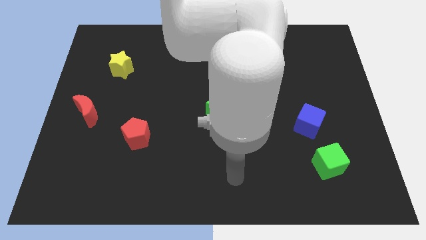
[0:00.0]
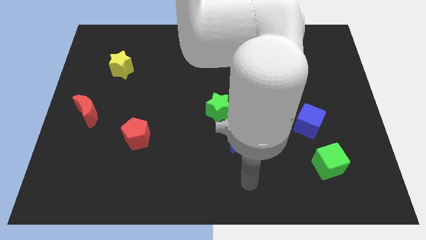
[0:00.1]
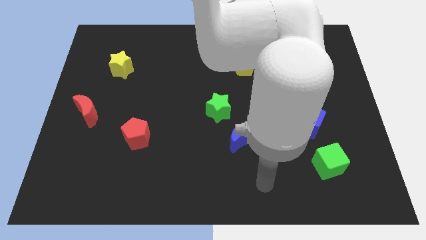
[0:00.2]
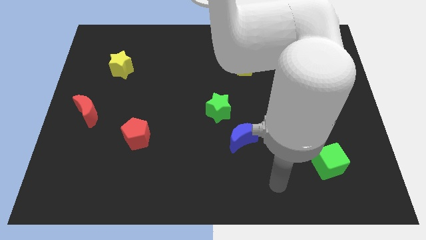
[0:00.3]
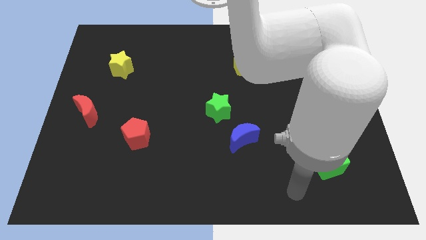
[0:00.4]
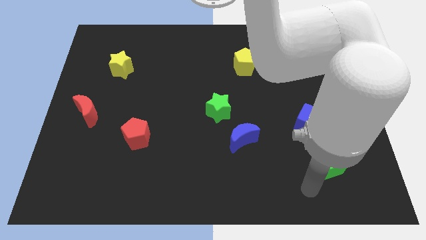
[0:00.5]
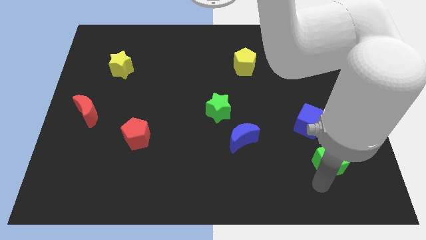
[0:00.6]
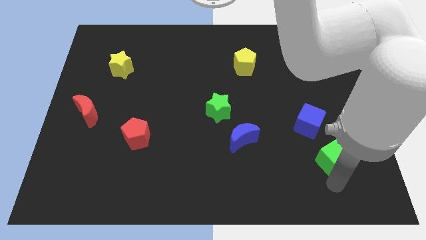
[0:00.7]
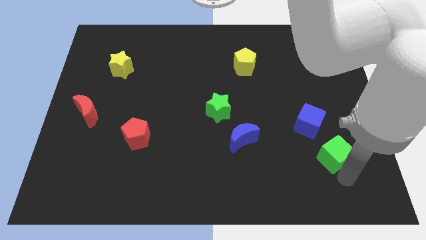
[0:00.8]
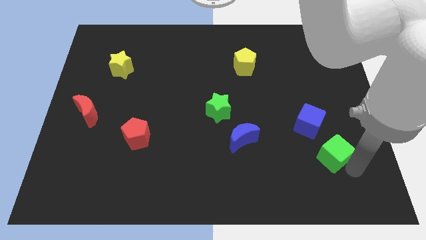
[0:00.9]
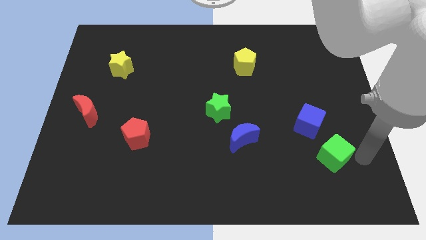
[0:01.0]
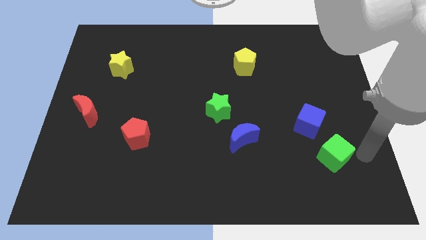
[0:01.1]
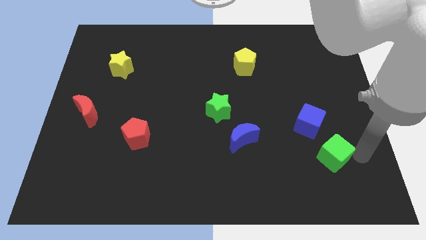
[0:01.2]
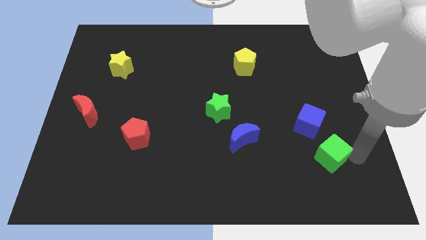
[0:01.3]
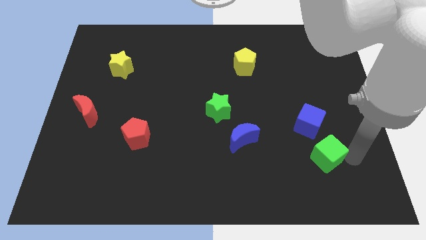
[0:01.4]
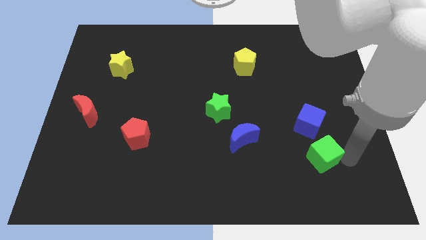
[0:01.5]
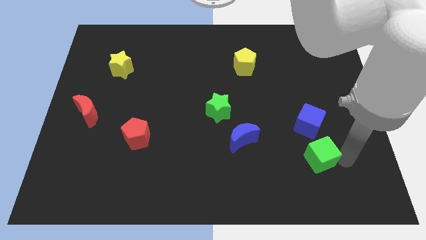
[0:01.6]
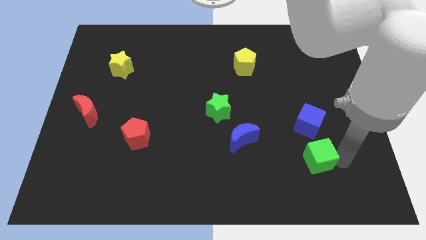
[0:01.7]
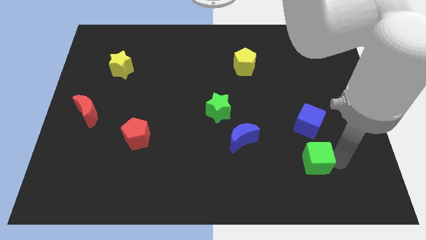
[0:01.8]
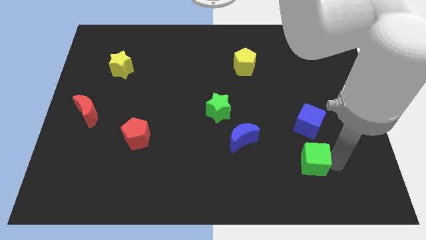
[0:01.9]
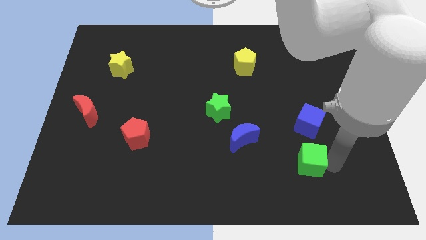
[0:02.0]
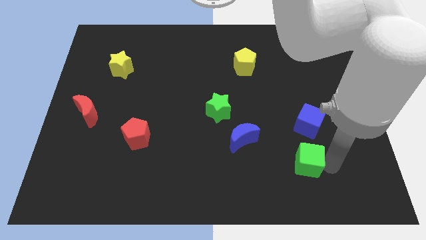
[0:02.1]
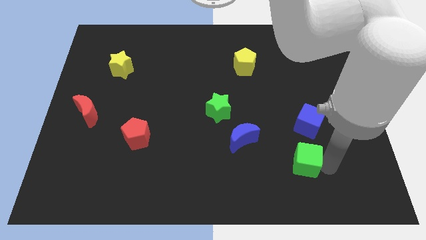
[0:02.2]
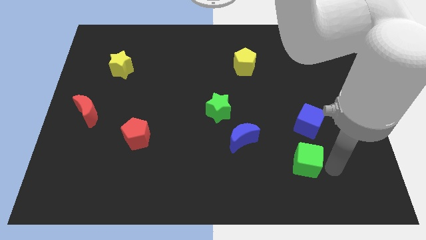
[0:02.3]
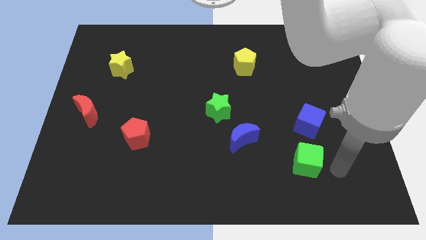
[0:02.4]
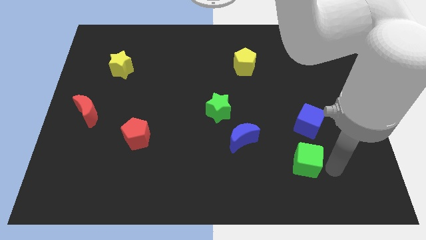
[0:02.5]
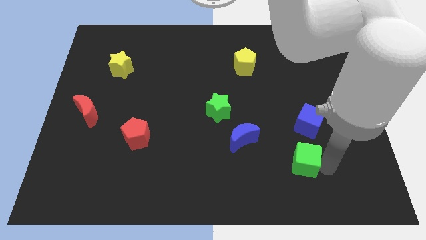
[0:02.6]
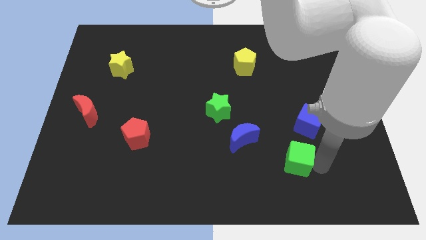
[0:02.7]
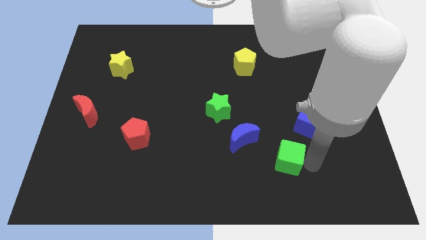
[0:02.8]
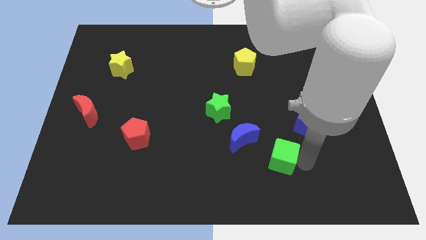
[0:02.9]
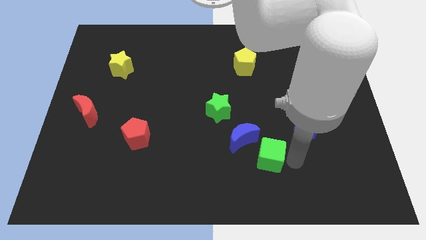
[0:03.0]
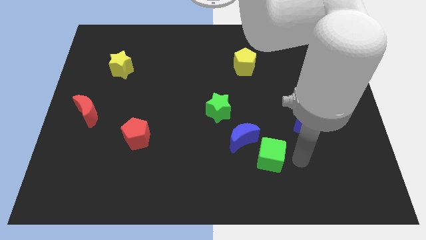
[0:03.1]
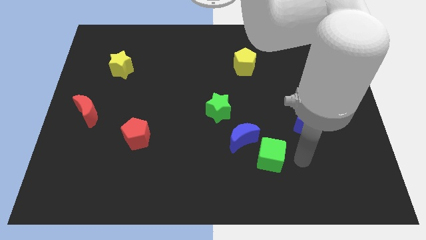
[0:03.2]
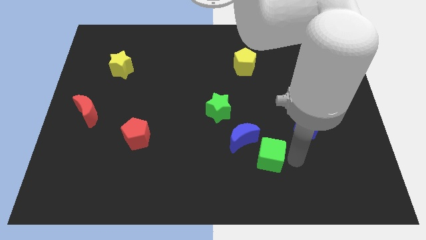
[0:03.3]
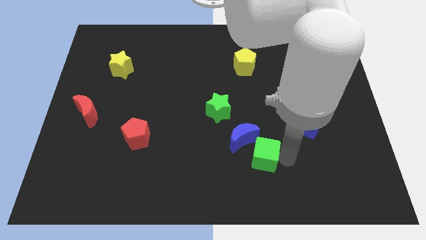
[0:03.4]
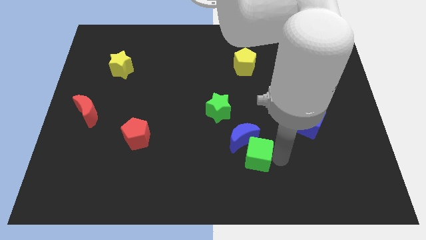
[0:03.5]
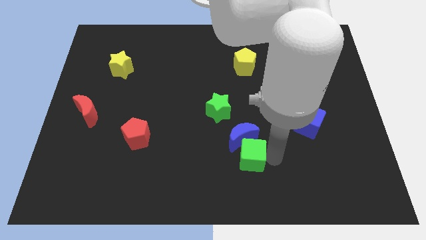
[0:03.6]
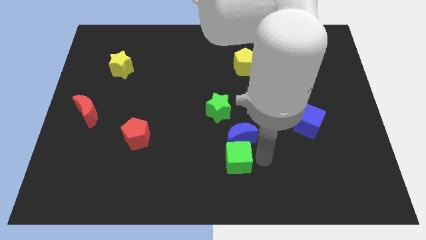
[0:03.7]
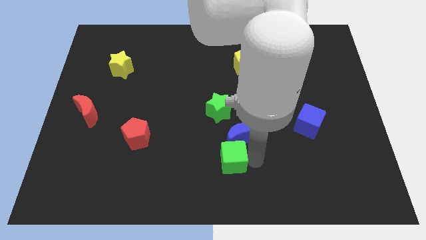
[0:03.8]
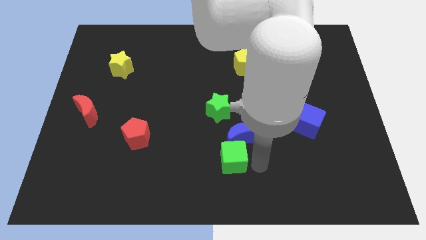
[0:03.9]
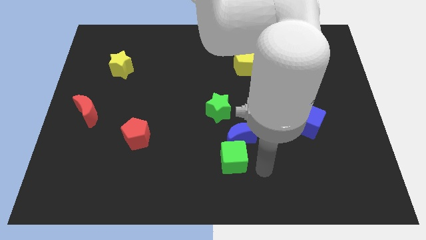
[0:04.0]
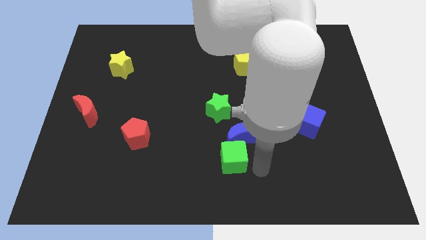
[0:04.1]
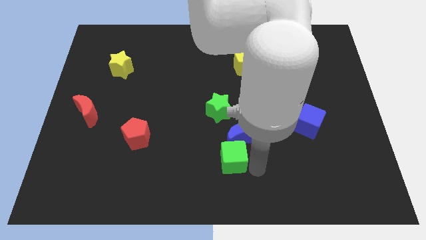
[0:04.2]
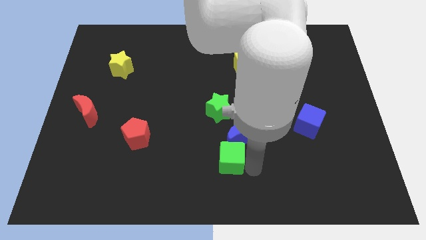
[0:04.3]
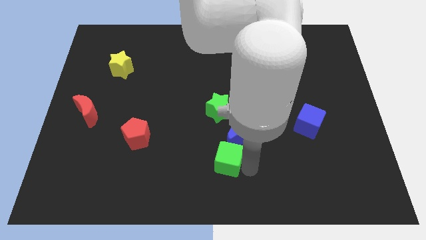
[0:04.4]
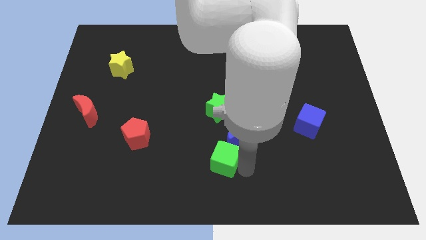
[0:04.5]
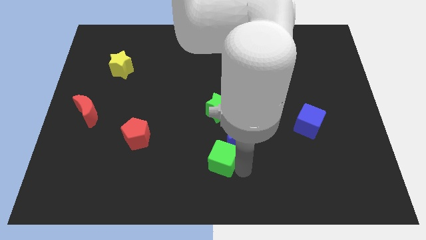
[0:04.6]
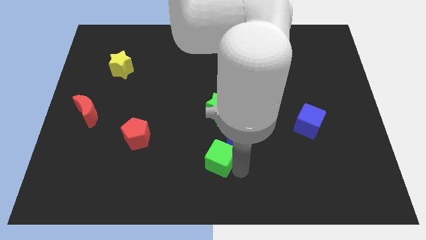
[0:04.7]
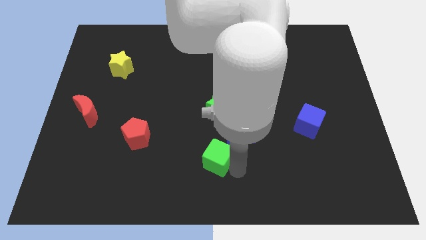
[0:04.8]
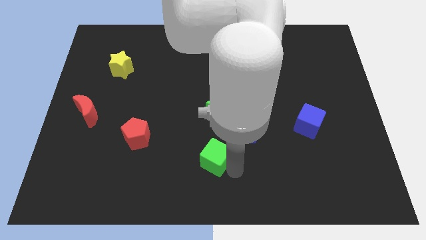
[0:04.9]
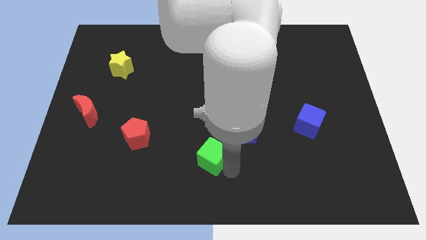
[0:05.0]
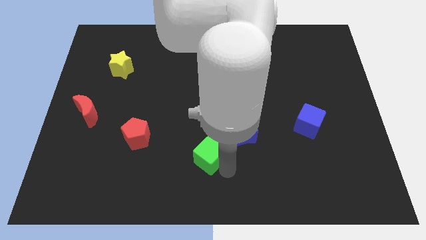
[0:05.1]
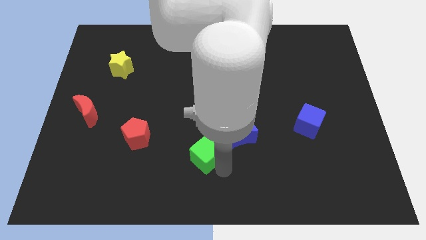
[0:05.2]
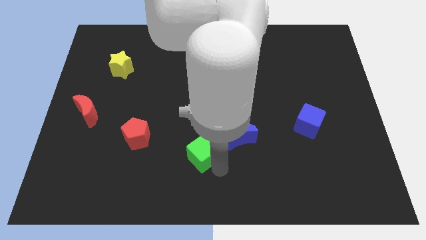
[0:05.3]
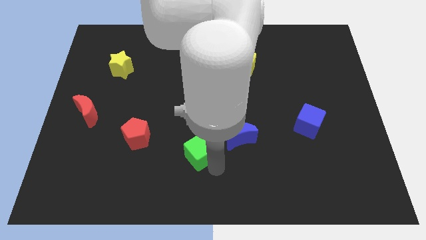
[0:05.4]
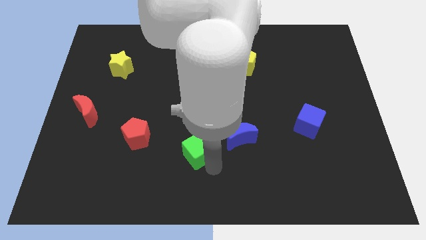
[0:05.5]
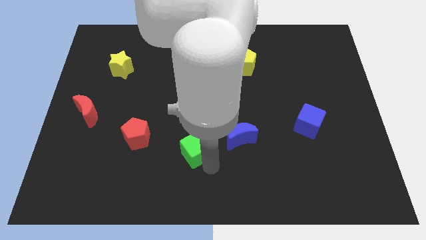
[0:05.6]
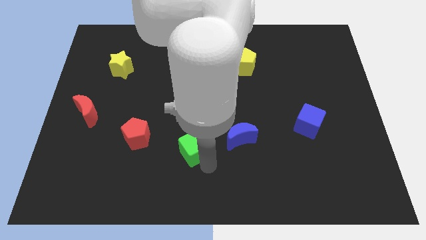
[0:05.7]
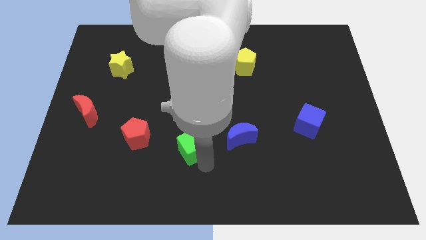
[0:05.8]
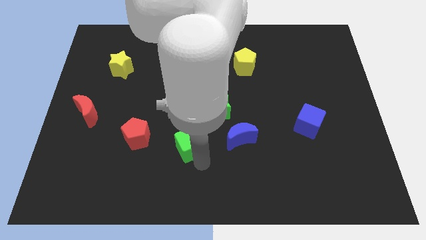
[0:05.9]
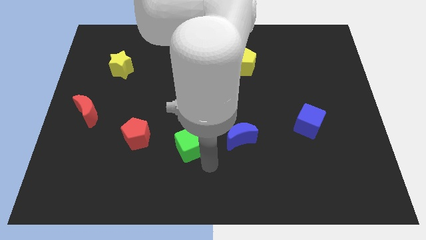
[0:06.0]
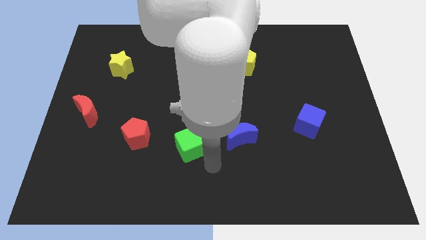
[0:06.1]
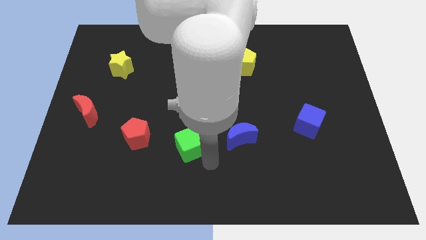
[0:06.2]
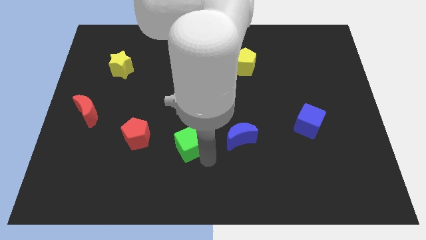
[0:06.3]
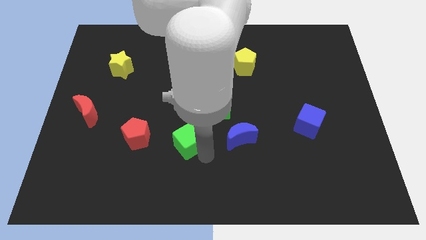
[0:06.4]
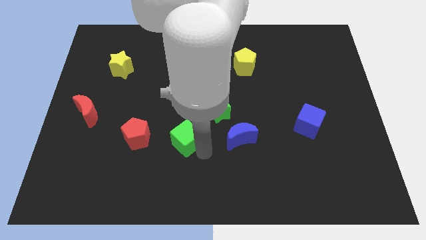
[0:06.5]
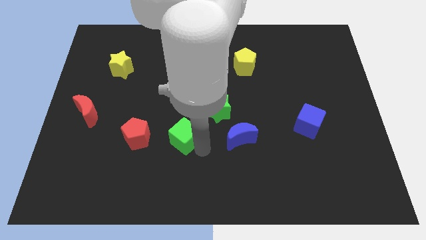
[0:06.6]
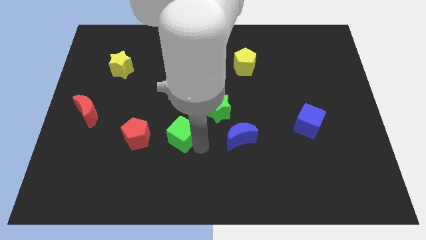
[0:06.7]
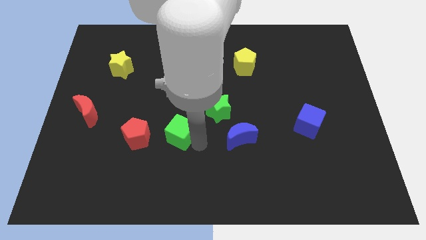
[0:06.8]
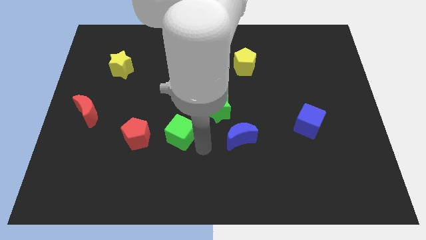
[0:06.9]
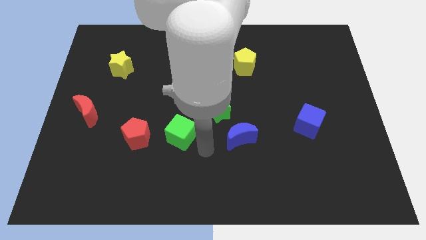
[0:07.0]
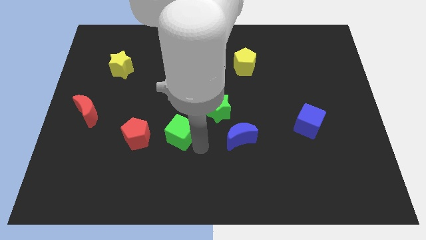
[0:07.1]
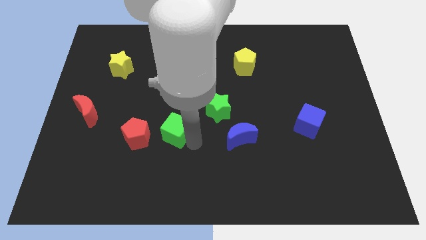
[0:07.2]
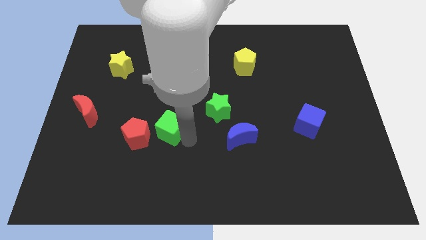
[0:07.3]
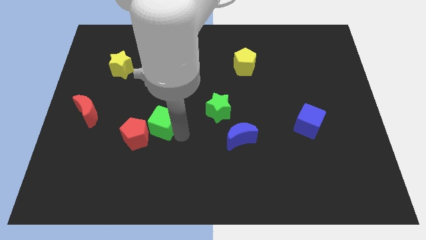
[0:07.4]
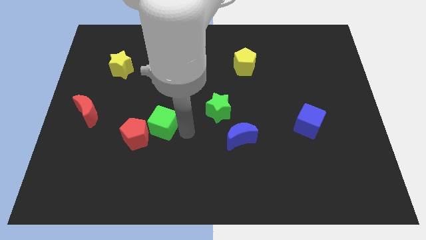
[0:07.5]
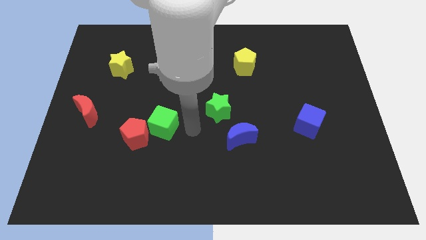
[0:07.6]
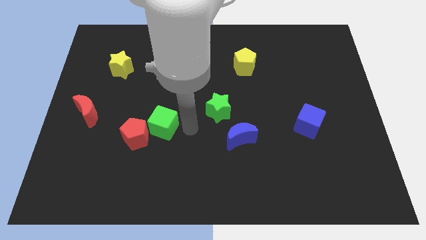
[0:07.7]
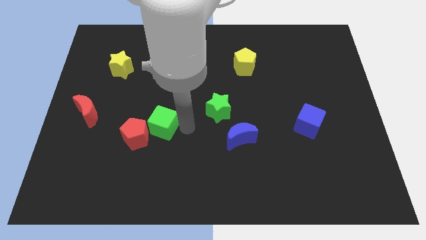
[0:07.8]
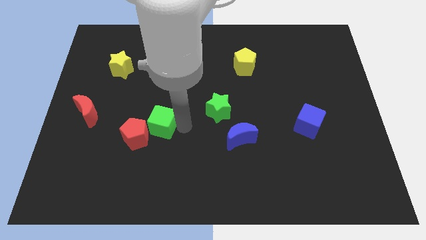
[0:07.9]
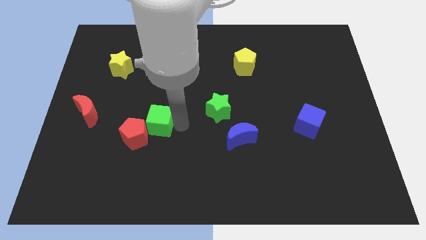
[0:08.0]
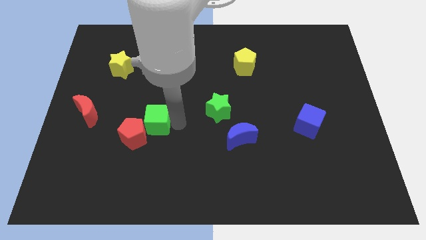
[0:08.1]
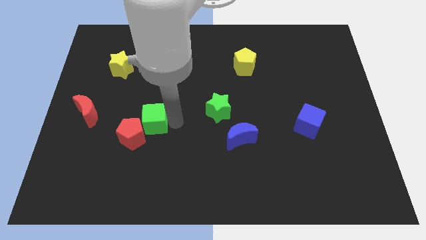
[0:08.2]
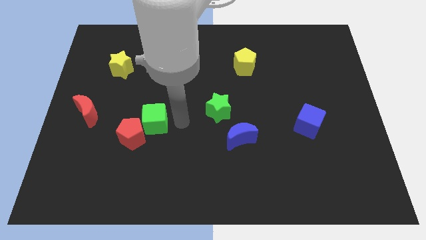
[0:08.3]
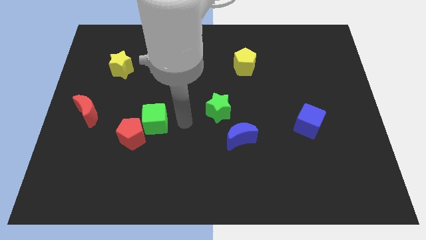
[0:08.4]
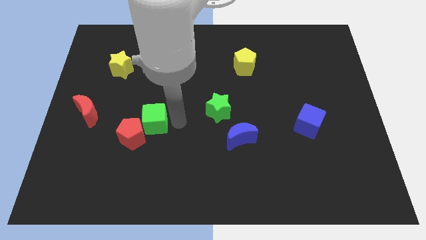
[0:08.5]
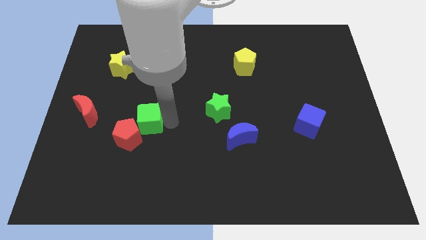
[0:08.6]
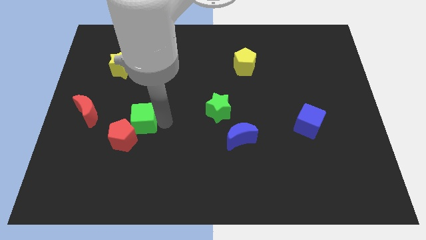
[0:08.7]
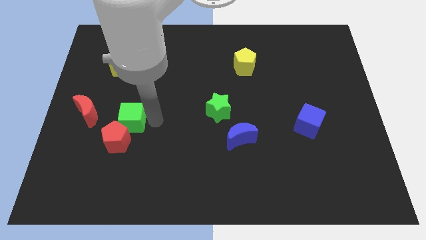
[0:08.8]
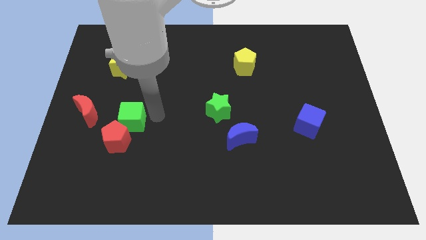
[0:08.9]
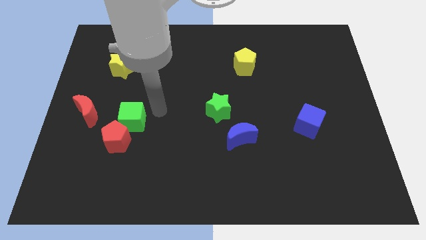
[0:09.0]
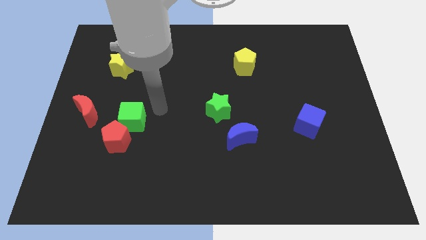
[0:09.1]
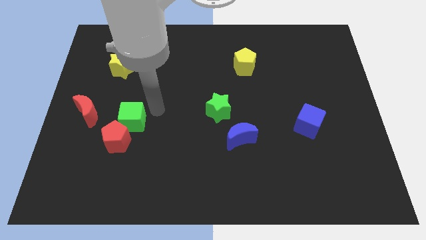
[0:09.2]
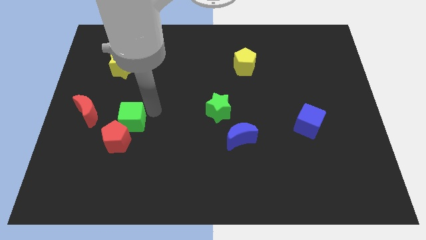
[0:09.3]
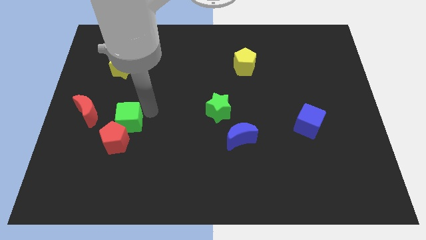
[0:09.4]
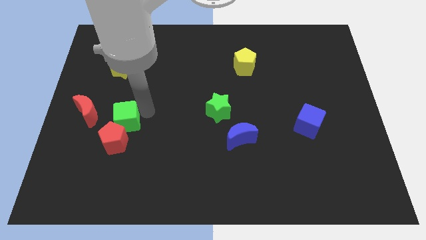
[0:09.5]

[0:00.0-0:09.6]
move the green cube to the bottom right side of the red moon
